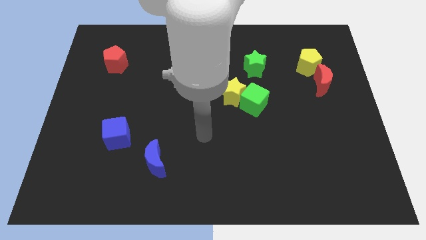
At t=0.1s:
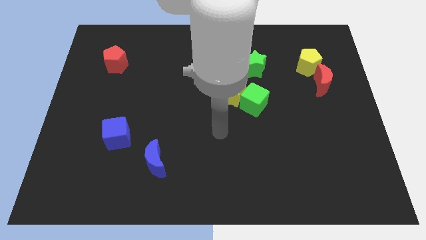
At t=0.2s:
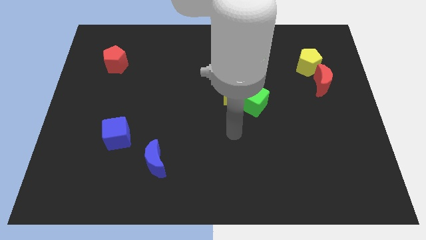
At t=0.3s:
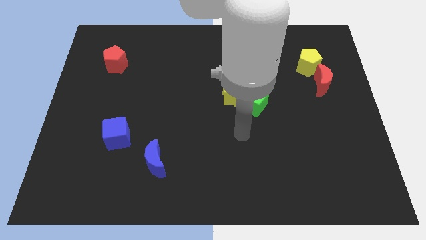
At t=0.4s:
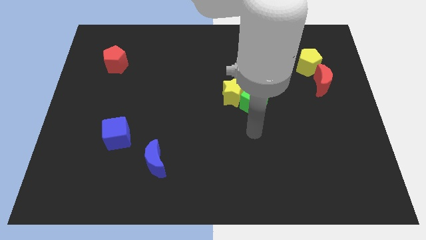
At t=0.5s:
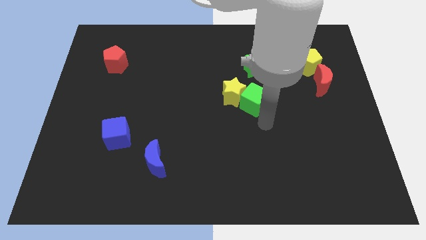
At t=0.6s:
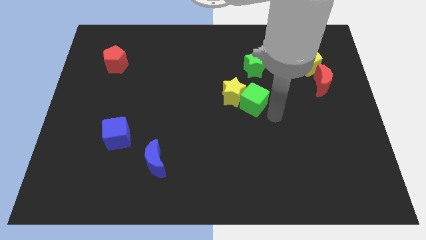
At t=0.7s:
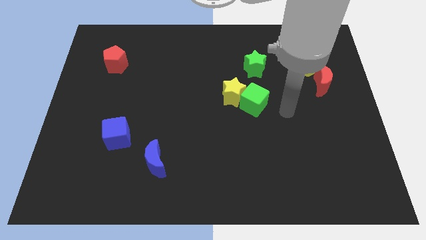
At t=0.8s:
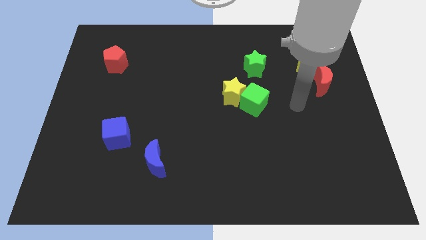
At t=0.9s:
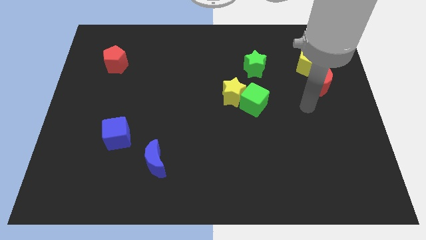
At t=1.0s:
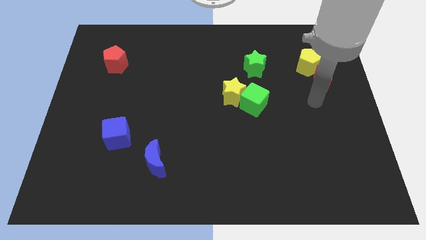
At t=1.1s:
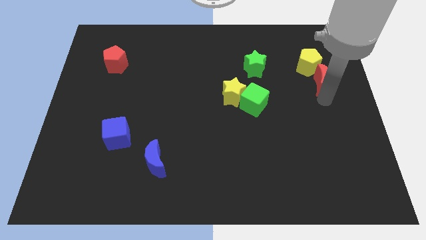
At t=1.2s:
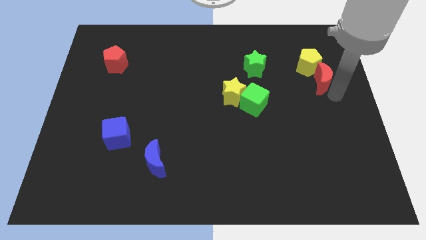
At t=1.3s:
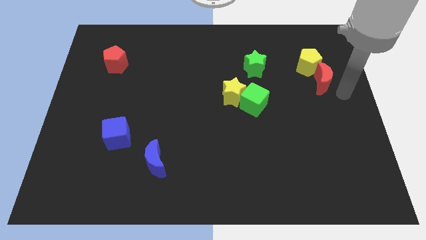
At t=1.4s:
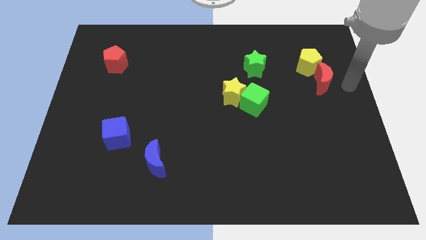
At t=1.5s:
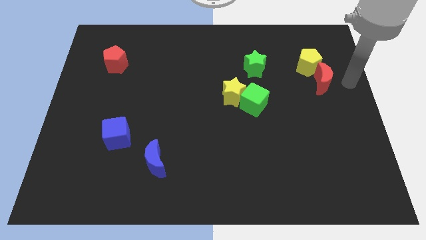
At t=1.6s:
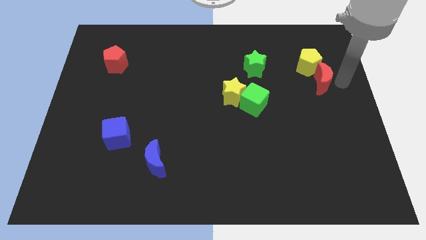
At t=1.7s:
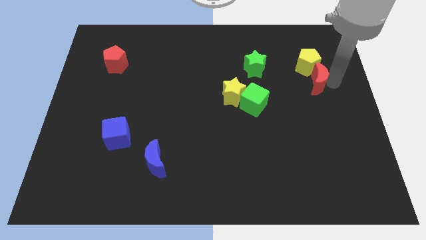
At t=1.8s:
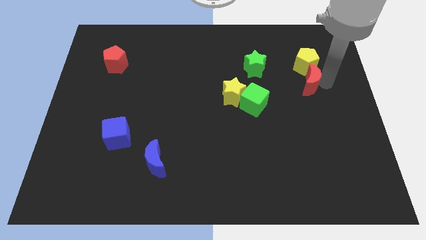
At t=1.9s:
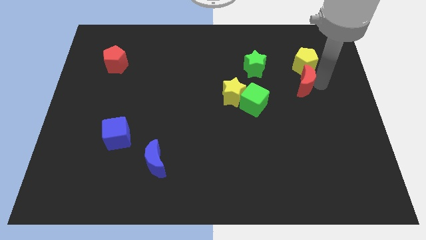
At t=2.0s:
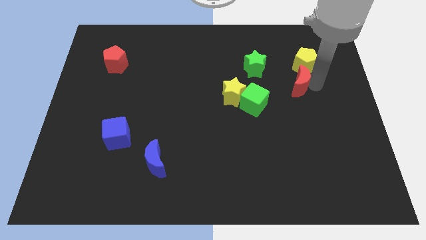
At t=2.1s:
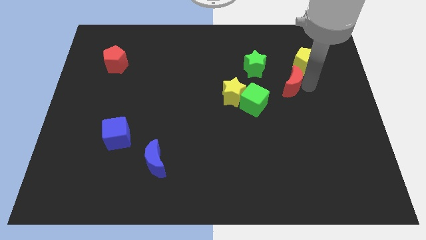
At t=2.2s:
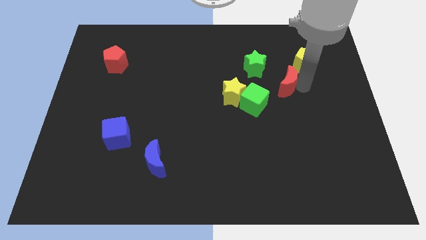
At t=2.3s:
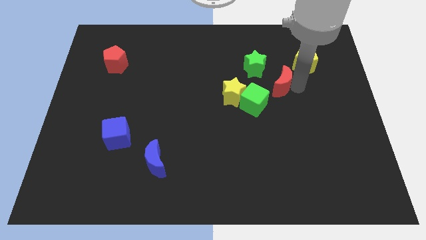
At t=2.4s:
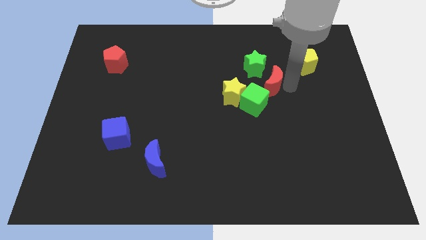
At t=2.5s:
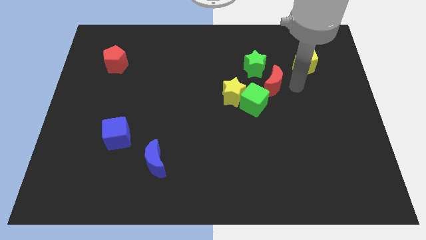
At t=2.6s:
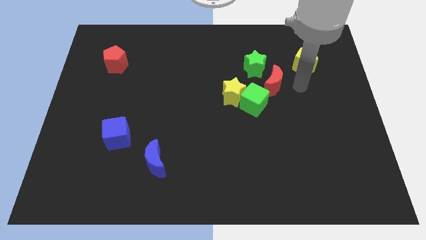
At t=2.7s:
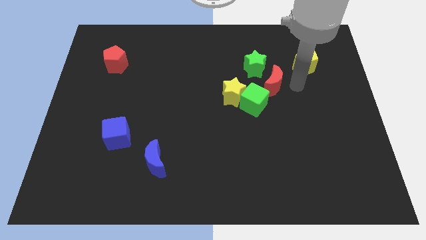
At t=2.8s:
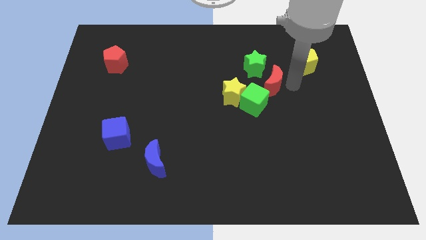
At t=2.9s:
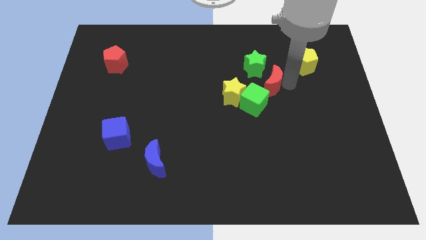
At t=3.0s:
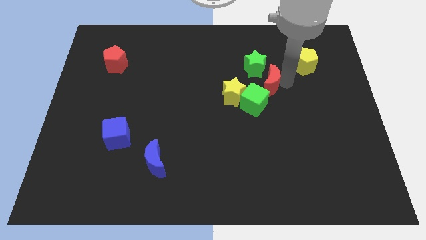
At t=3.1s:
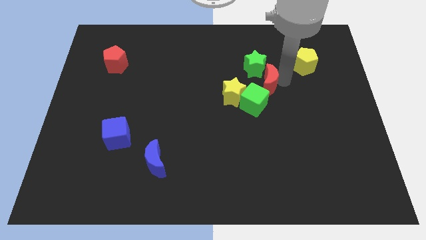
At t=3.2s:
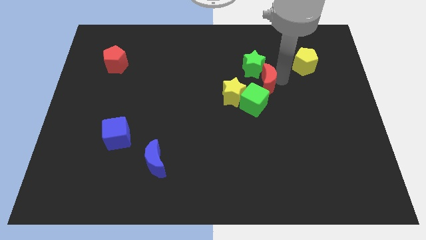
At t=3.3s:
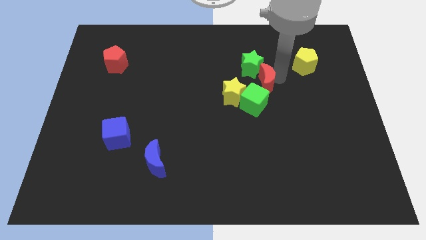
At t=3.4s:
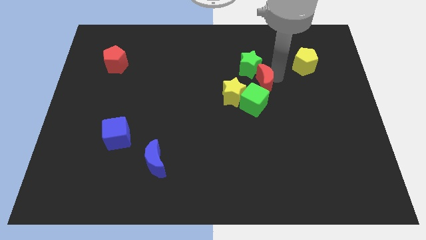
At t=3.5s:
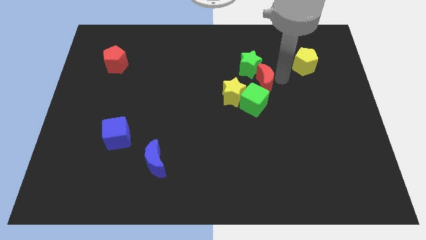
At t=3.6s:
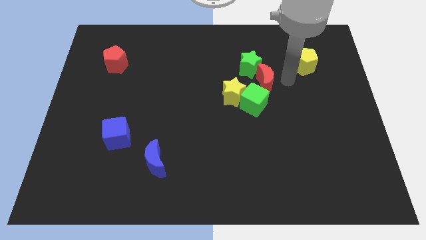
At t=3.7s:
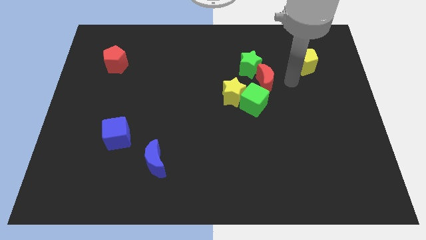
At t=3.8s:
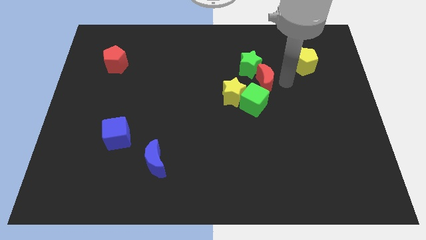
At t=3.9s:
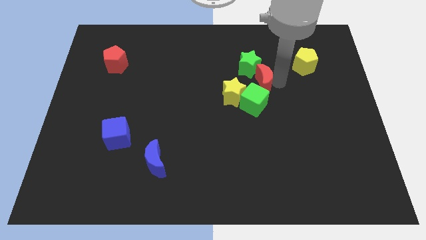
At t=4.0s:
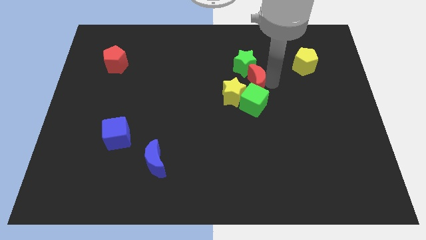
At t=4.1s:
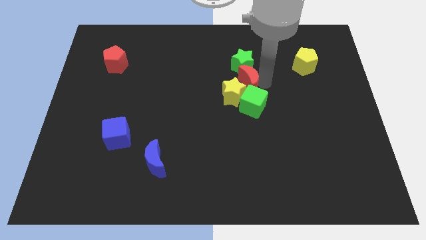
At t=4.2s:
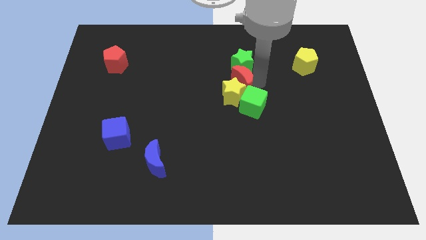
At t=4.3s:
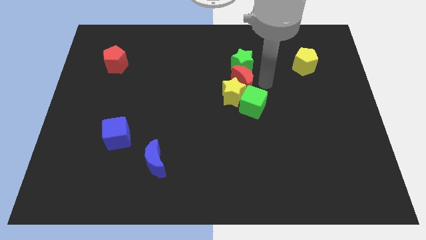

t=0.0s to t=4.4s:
slide the red moon left

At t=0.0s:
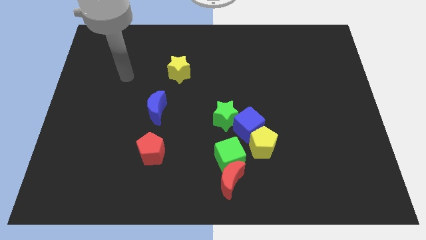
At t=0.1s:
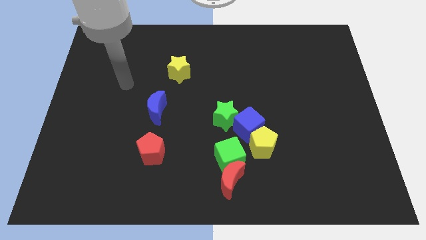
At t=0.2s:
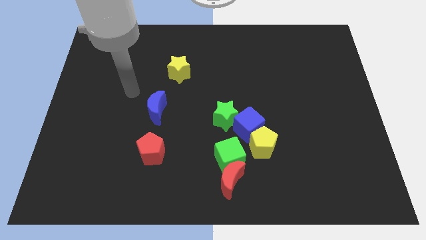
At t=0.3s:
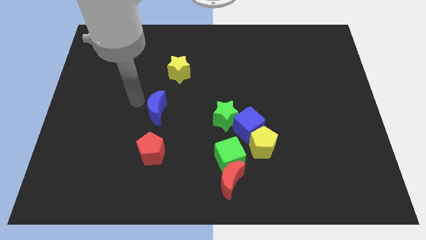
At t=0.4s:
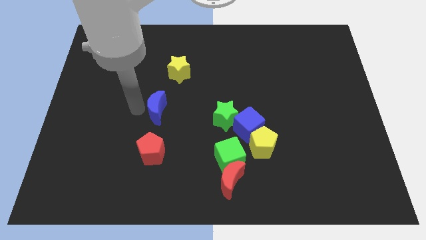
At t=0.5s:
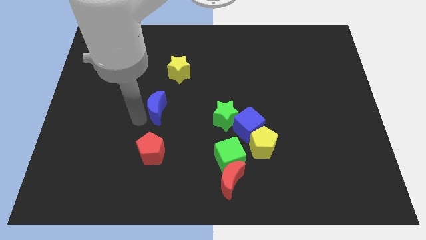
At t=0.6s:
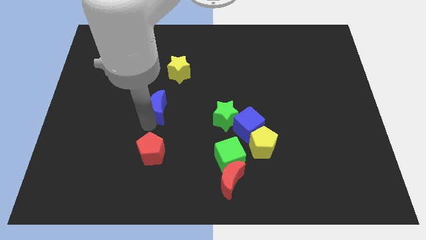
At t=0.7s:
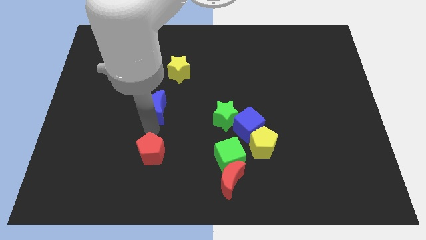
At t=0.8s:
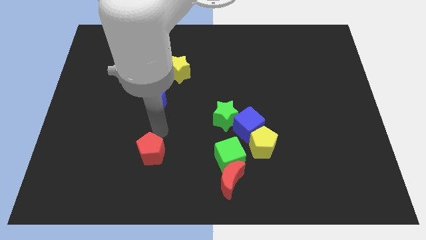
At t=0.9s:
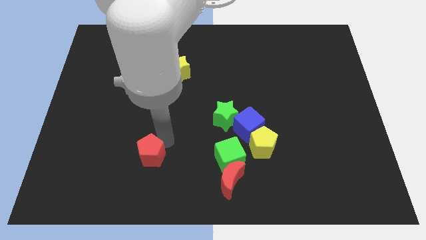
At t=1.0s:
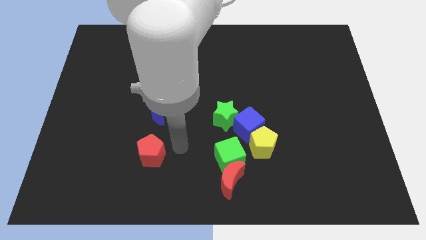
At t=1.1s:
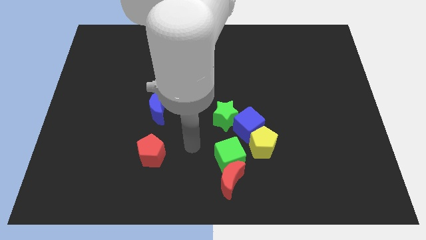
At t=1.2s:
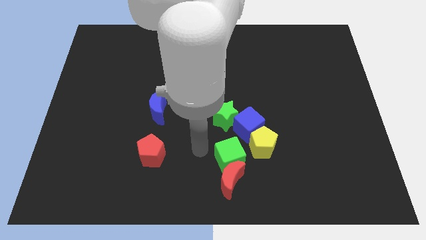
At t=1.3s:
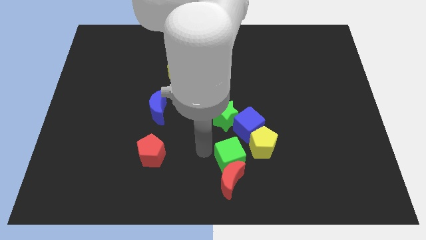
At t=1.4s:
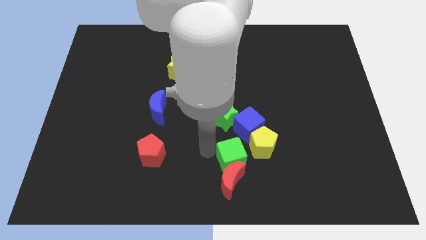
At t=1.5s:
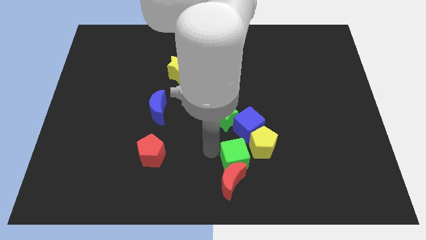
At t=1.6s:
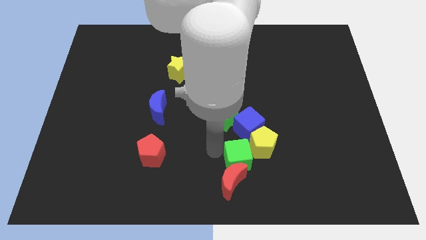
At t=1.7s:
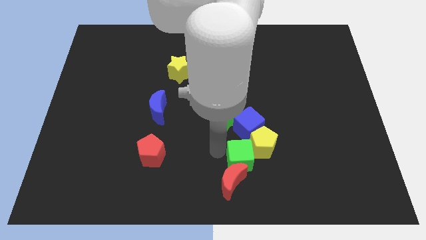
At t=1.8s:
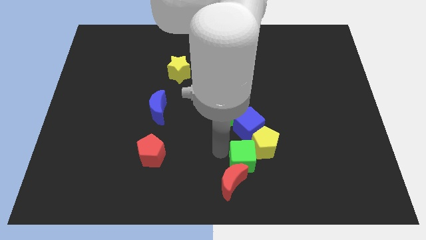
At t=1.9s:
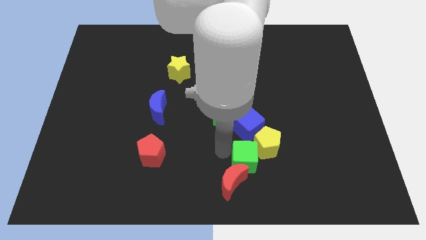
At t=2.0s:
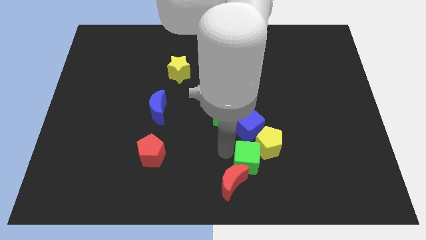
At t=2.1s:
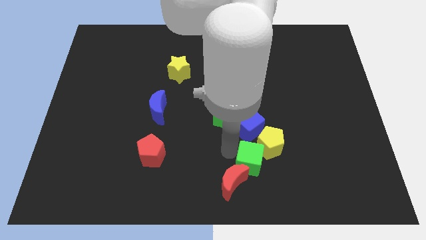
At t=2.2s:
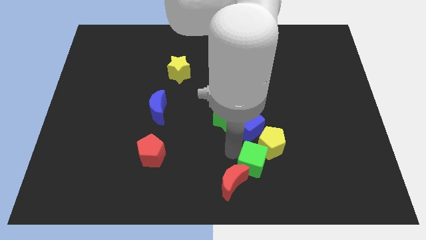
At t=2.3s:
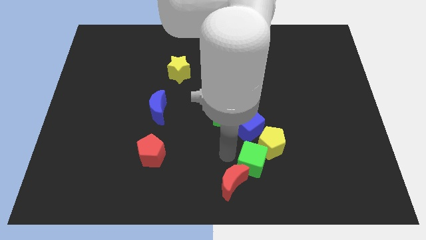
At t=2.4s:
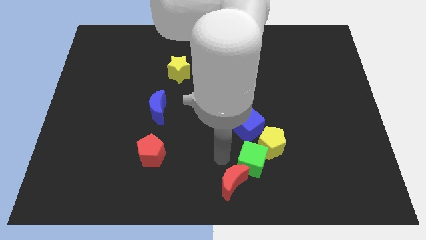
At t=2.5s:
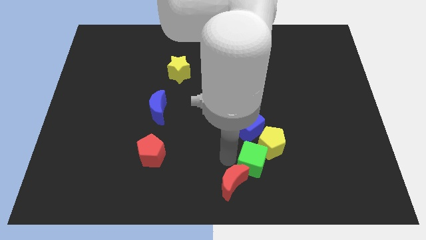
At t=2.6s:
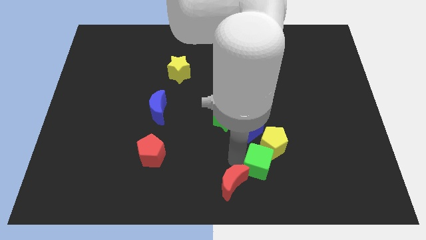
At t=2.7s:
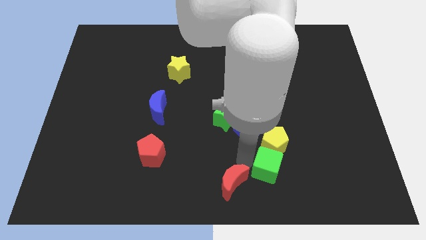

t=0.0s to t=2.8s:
slide the green cube a little right

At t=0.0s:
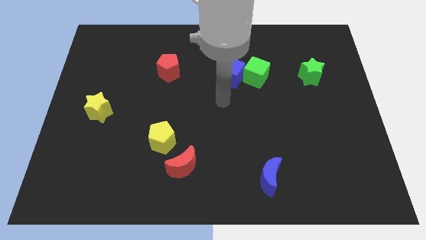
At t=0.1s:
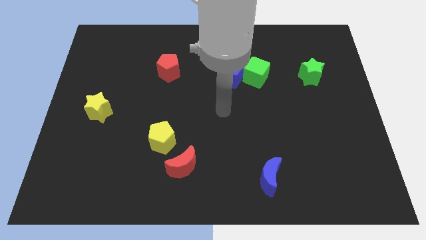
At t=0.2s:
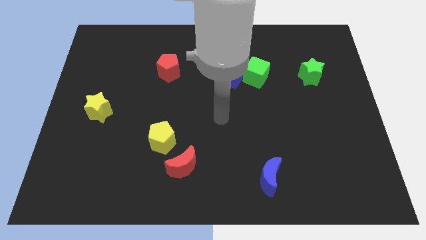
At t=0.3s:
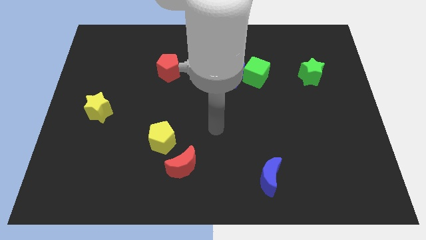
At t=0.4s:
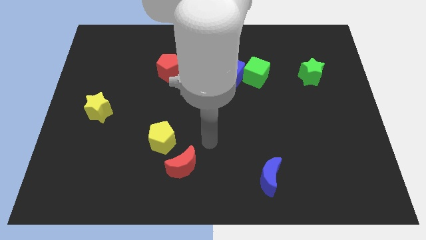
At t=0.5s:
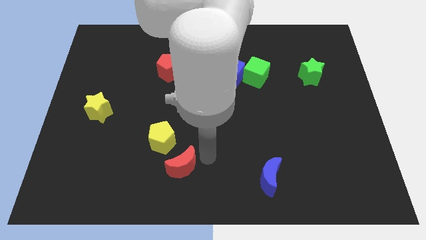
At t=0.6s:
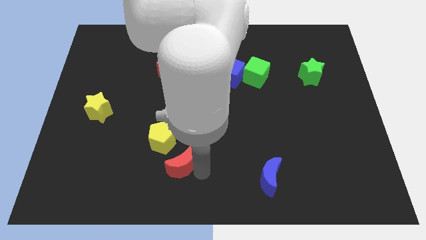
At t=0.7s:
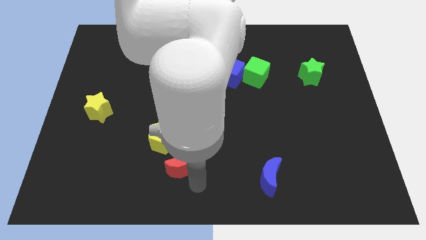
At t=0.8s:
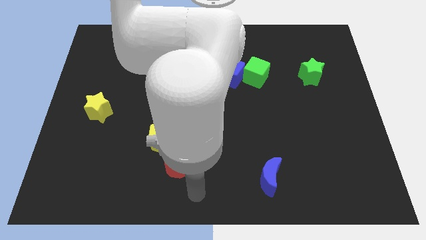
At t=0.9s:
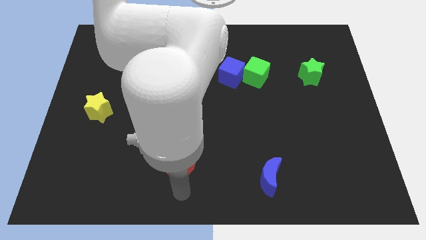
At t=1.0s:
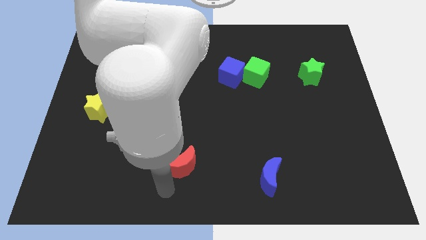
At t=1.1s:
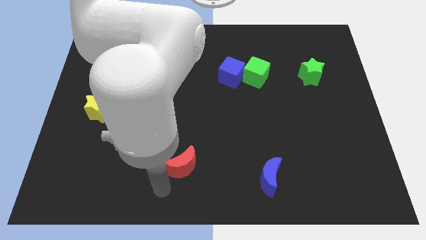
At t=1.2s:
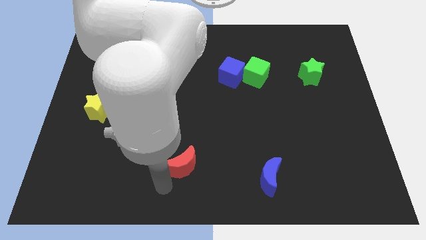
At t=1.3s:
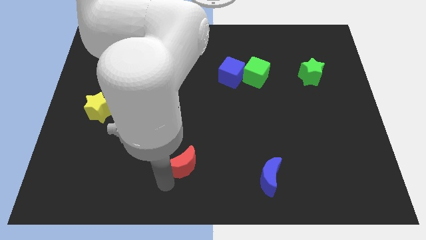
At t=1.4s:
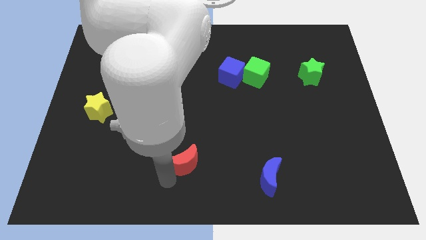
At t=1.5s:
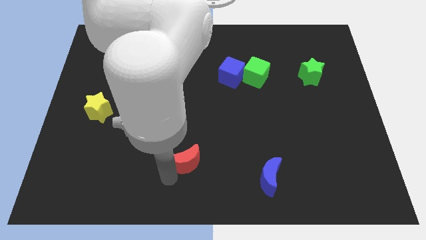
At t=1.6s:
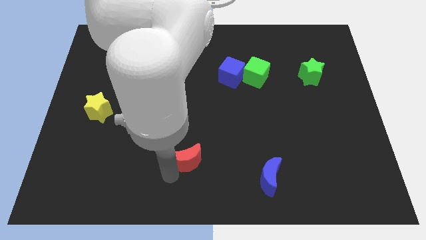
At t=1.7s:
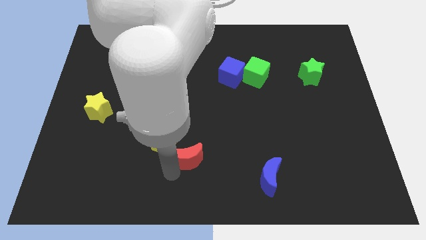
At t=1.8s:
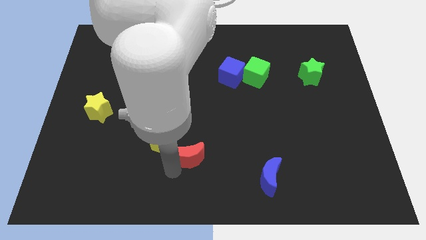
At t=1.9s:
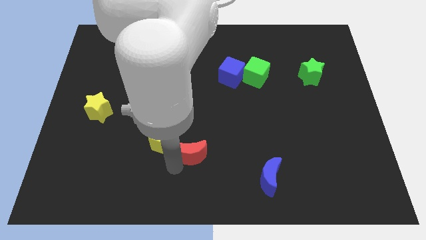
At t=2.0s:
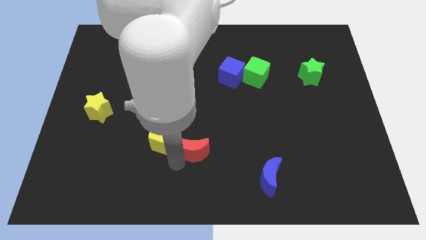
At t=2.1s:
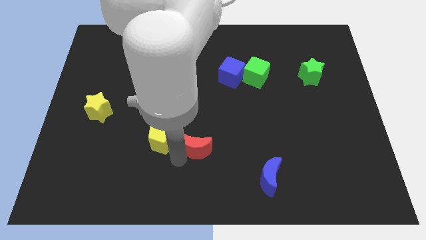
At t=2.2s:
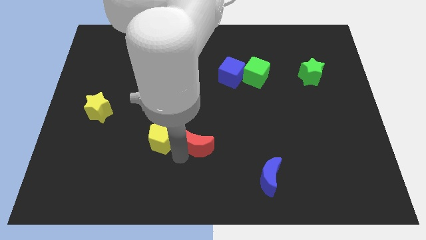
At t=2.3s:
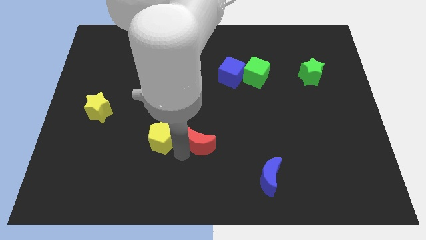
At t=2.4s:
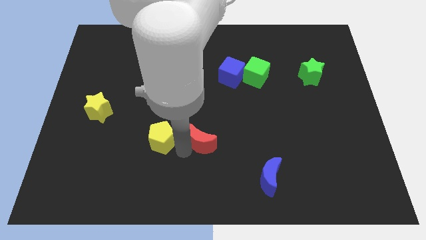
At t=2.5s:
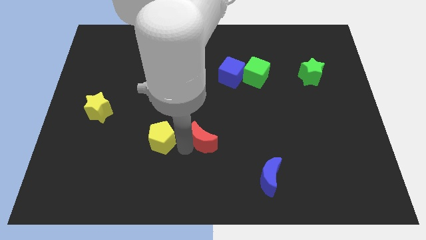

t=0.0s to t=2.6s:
move the red moon slightly diagonally up and right
